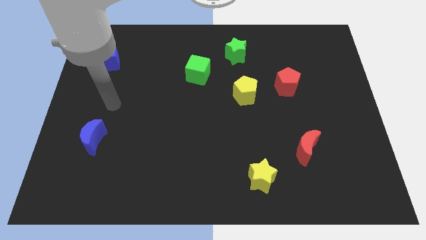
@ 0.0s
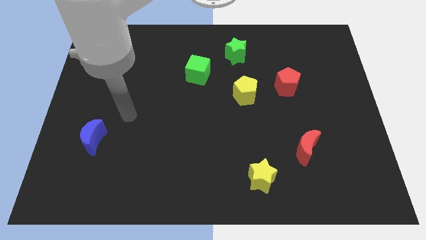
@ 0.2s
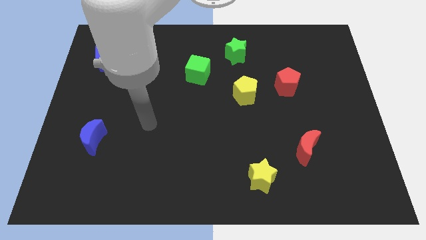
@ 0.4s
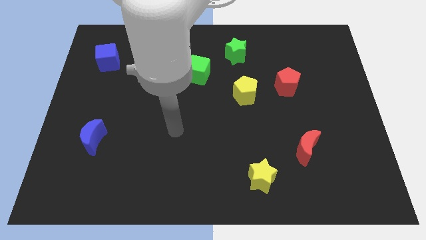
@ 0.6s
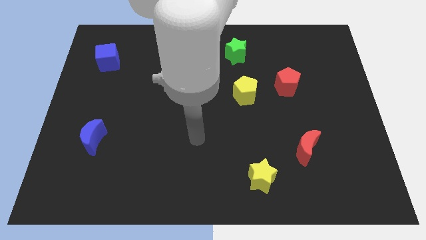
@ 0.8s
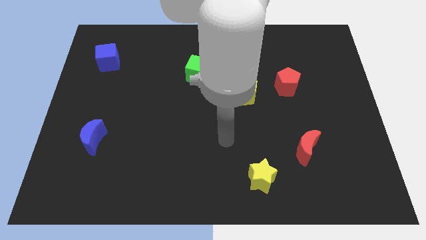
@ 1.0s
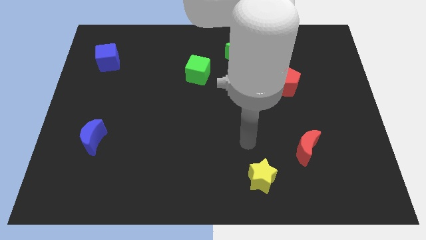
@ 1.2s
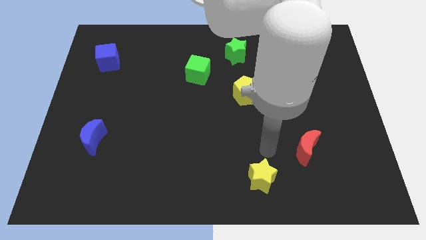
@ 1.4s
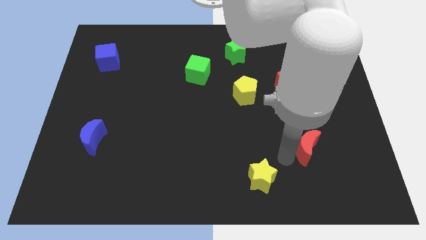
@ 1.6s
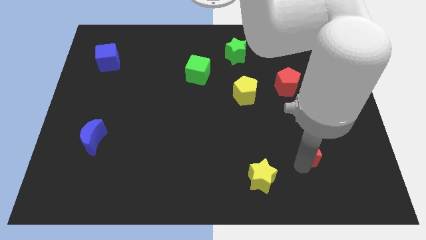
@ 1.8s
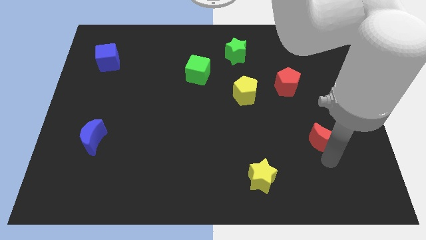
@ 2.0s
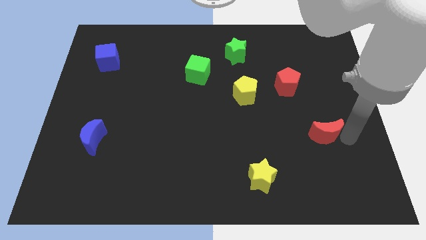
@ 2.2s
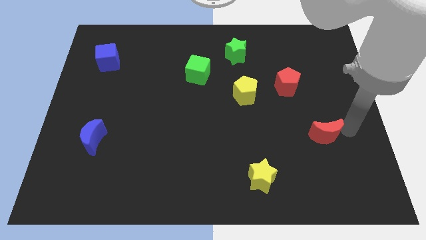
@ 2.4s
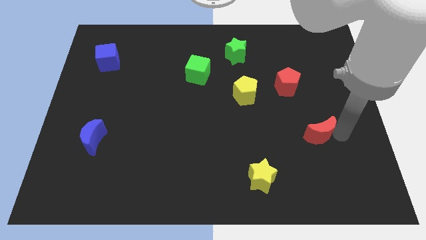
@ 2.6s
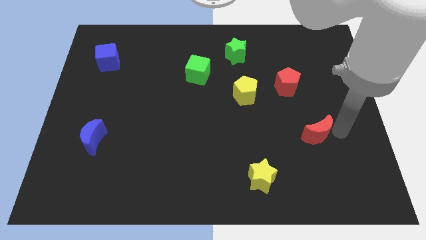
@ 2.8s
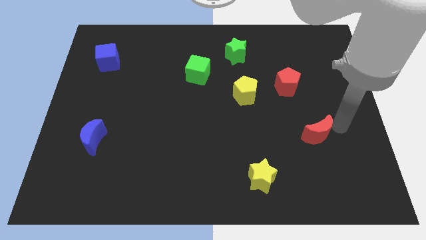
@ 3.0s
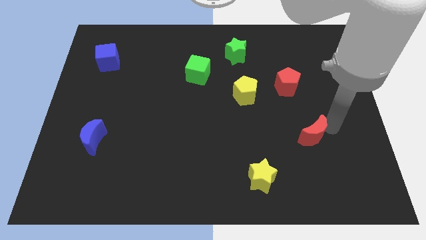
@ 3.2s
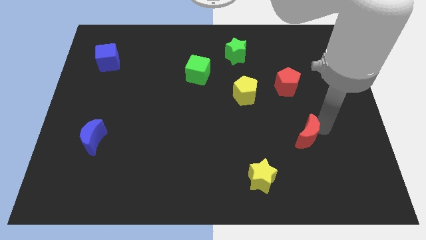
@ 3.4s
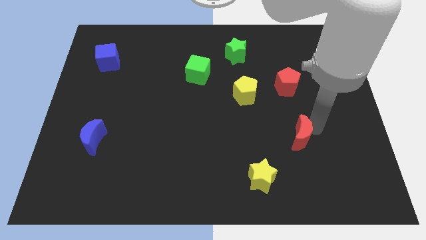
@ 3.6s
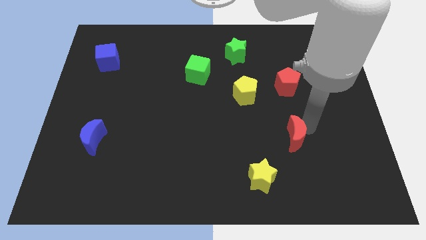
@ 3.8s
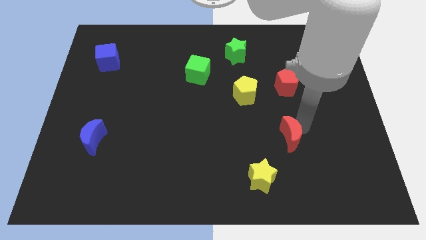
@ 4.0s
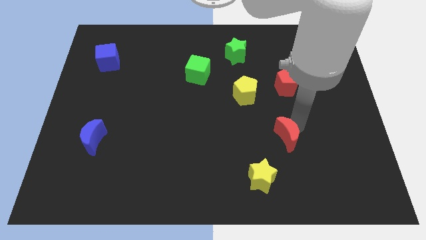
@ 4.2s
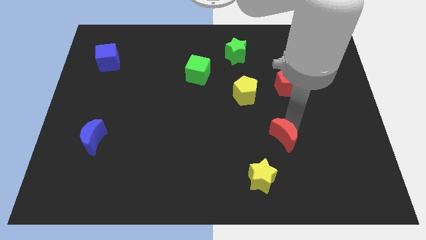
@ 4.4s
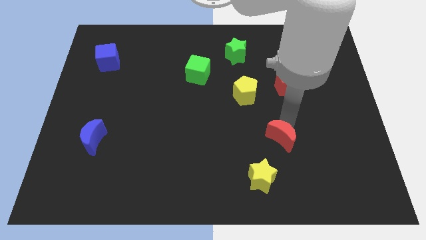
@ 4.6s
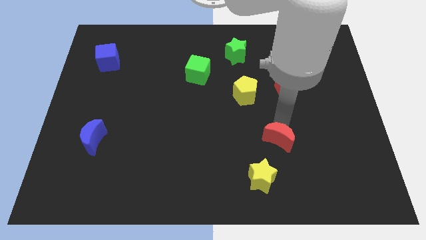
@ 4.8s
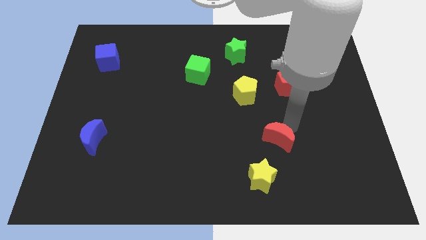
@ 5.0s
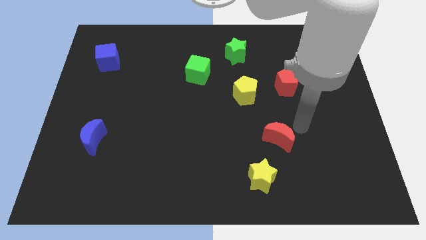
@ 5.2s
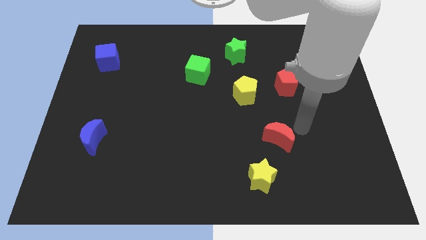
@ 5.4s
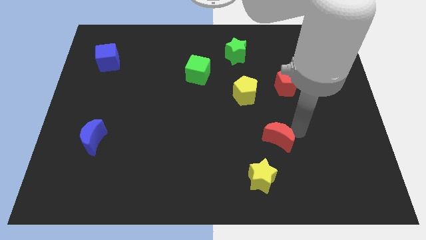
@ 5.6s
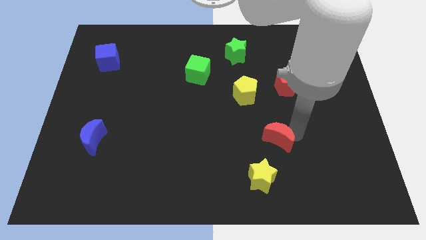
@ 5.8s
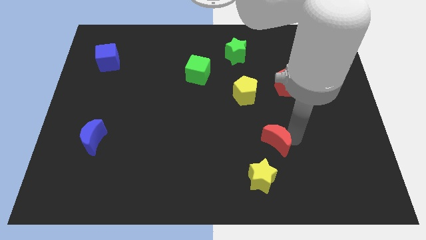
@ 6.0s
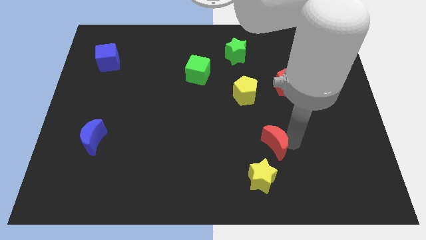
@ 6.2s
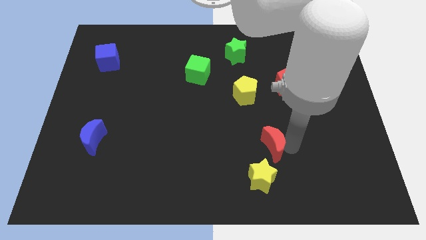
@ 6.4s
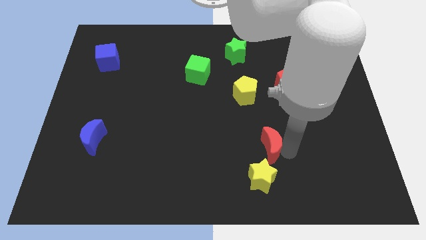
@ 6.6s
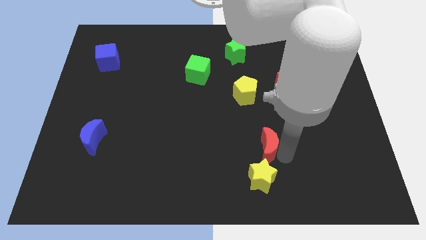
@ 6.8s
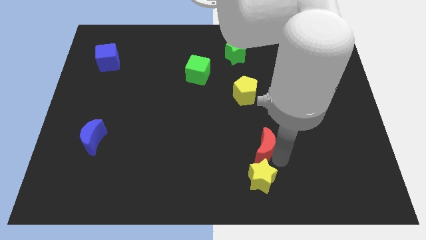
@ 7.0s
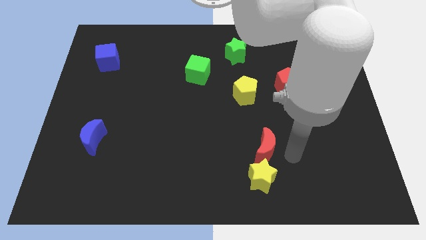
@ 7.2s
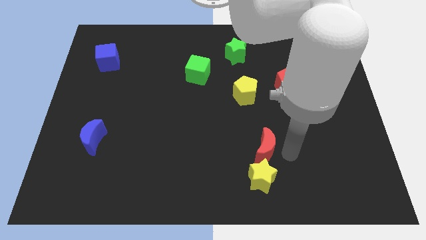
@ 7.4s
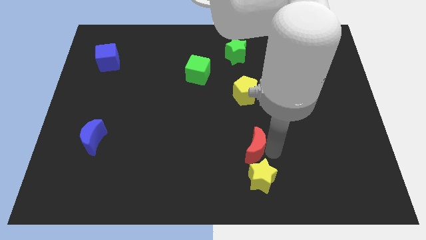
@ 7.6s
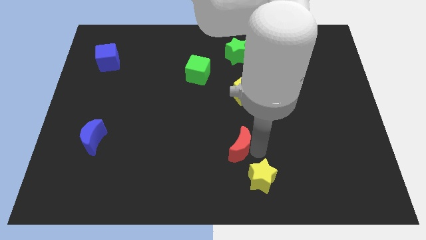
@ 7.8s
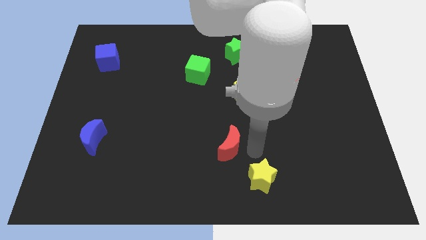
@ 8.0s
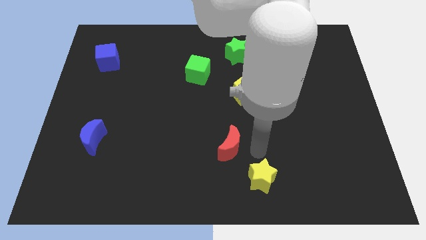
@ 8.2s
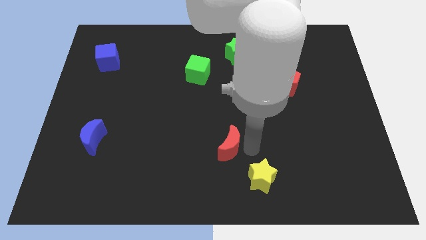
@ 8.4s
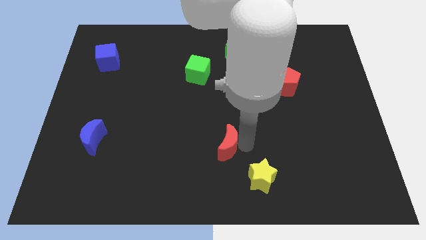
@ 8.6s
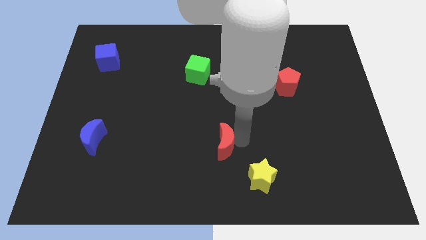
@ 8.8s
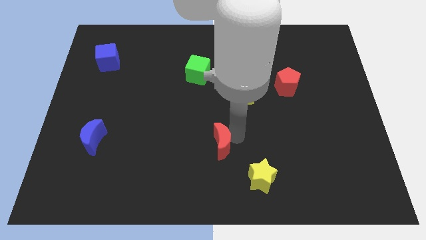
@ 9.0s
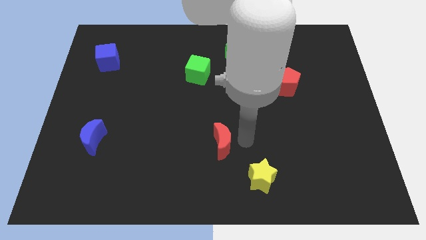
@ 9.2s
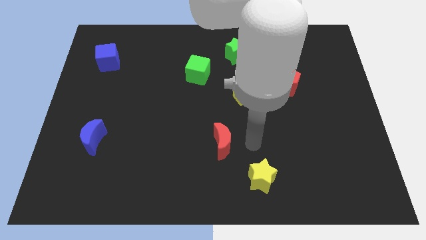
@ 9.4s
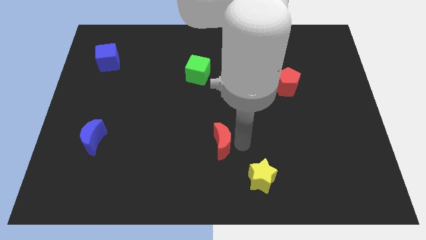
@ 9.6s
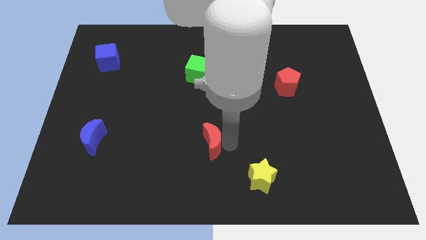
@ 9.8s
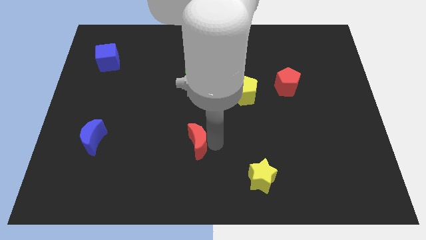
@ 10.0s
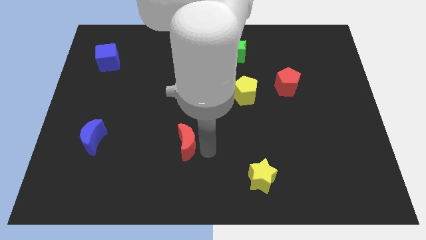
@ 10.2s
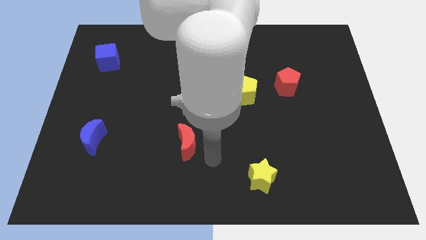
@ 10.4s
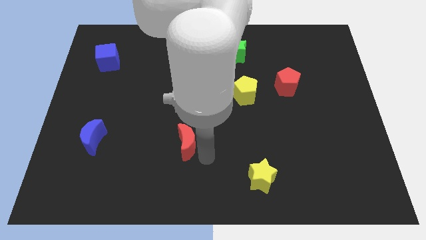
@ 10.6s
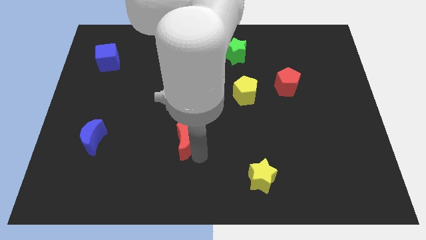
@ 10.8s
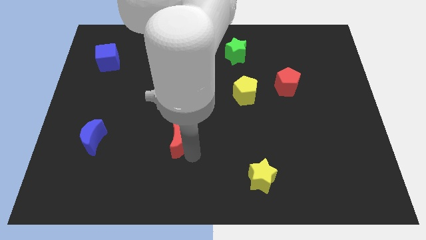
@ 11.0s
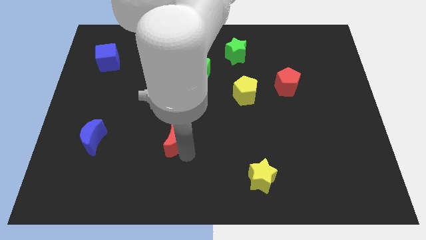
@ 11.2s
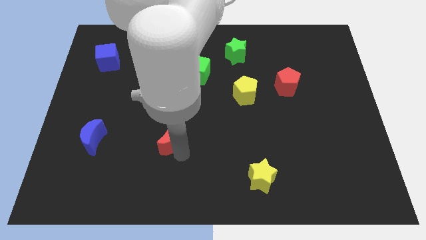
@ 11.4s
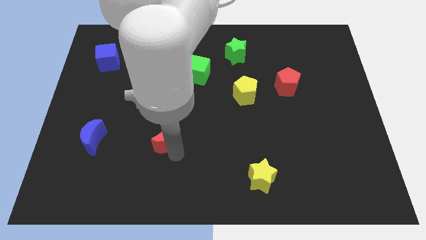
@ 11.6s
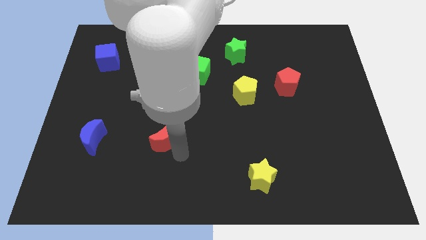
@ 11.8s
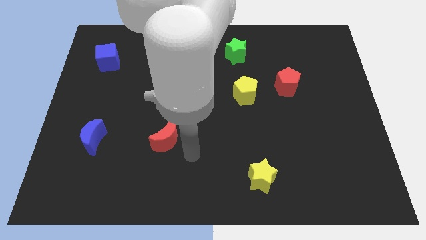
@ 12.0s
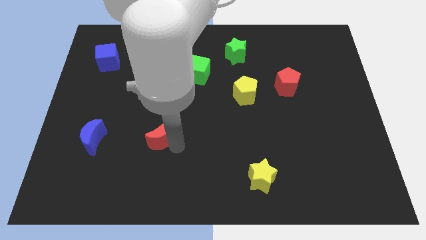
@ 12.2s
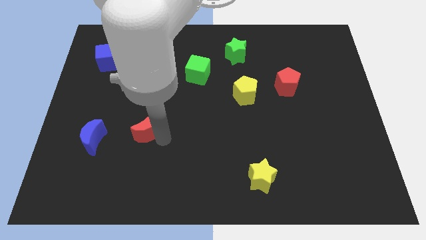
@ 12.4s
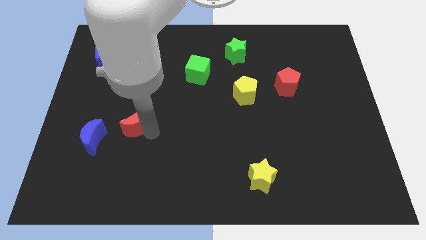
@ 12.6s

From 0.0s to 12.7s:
push the red moon diagonally up and to the right of the blue moon

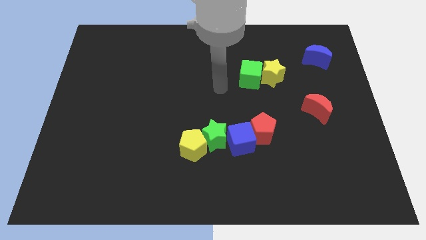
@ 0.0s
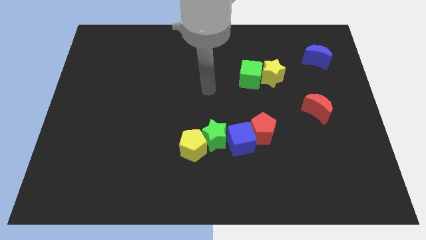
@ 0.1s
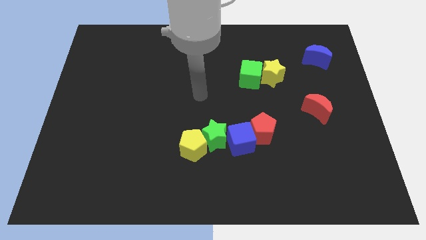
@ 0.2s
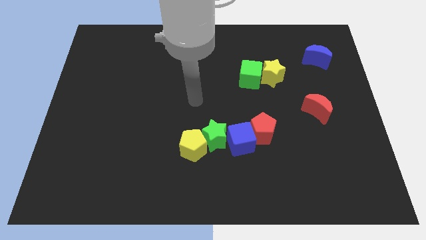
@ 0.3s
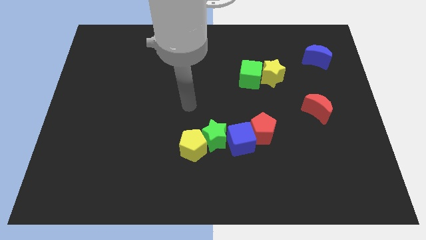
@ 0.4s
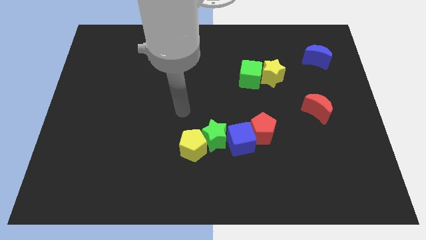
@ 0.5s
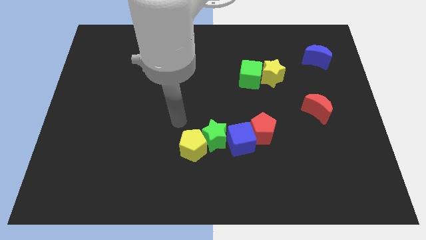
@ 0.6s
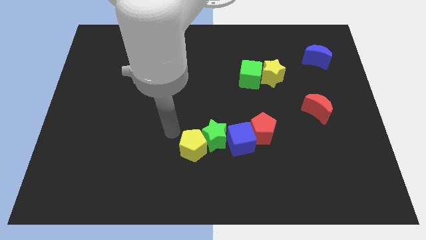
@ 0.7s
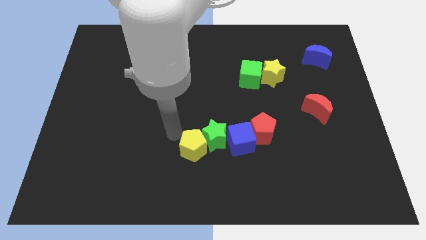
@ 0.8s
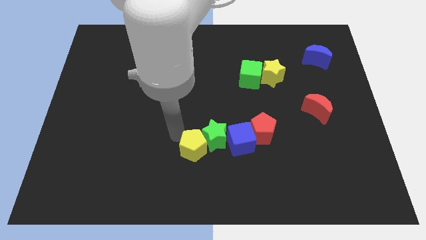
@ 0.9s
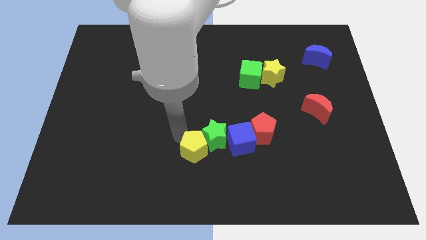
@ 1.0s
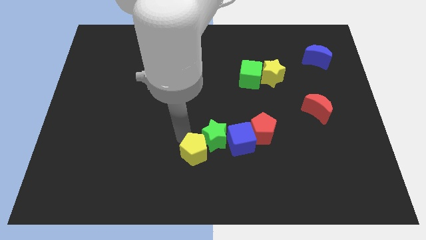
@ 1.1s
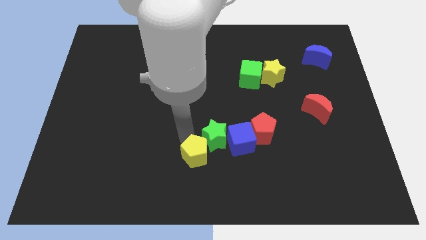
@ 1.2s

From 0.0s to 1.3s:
move the yellow pentagon to the bottom left of the blue cube

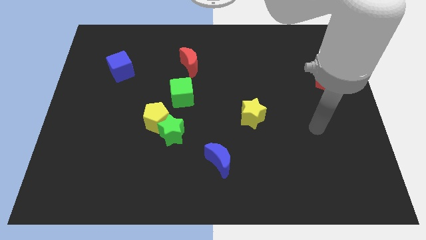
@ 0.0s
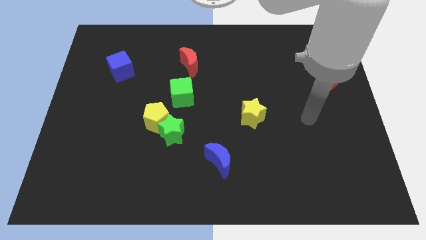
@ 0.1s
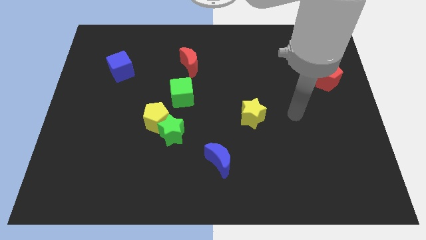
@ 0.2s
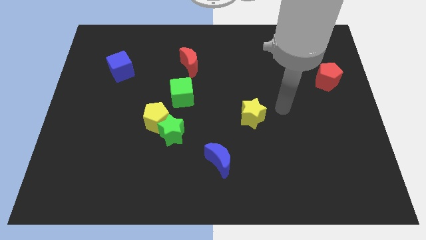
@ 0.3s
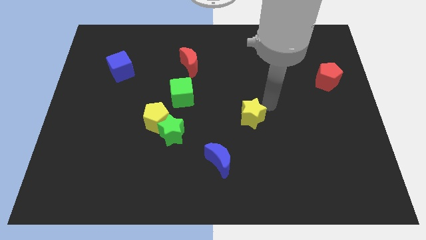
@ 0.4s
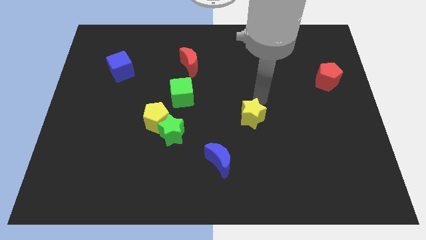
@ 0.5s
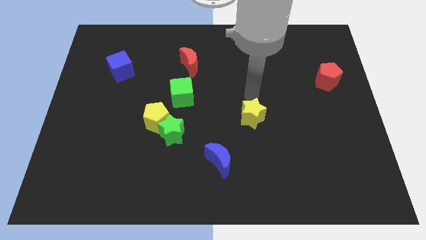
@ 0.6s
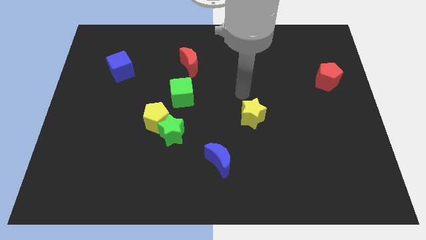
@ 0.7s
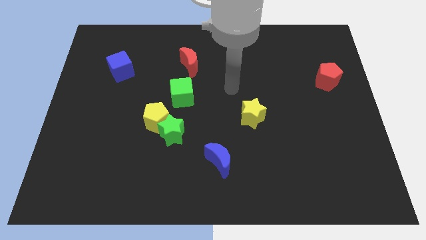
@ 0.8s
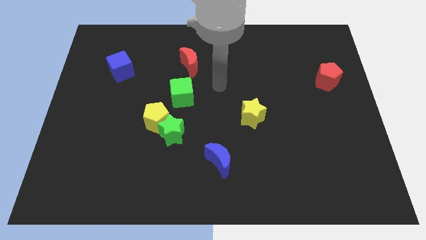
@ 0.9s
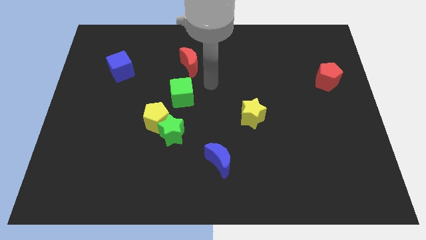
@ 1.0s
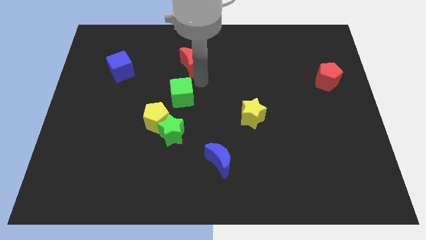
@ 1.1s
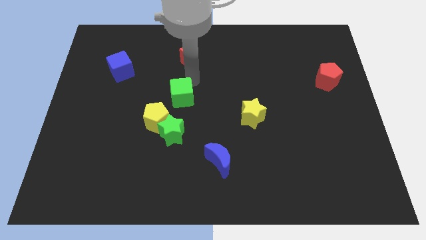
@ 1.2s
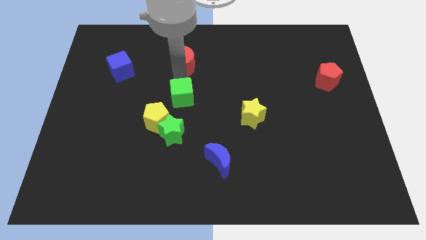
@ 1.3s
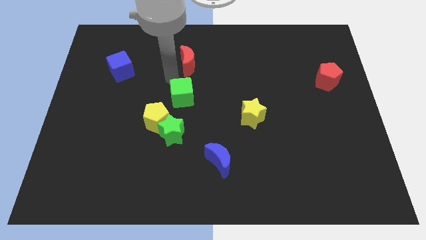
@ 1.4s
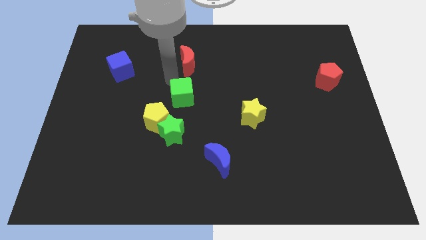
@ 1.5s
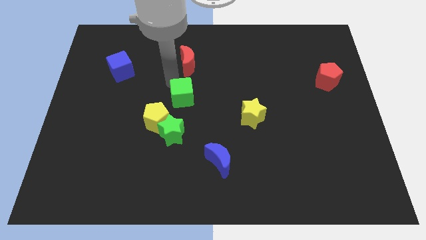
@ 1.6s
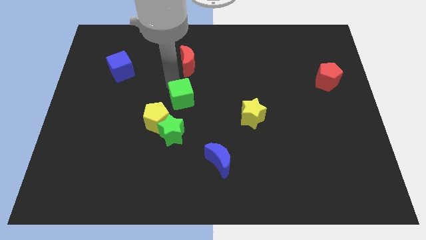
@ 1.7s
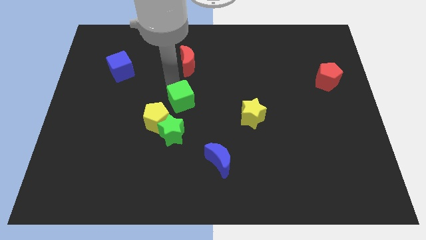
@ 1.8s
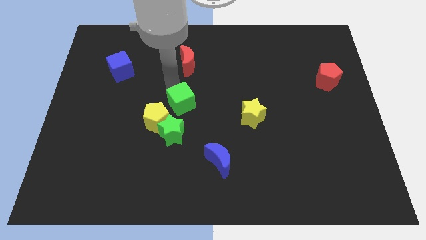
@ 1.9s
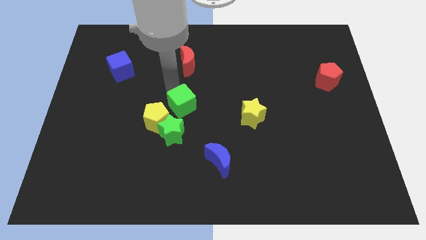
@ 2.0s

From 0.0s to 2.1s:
put the green cube to the top right side of the green star
